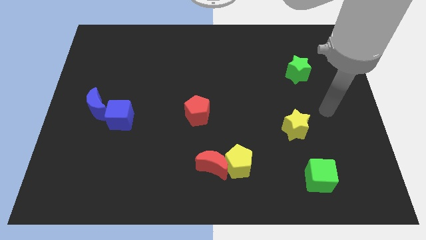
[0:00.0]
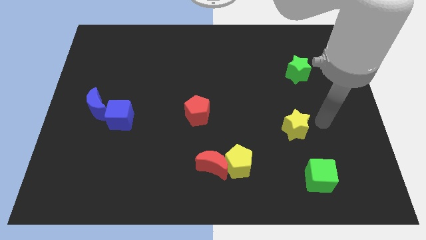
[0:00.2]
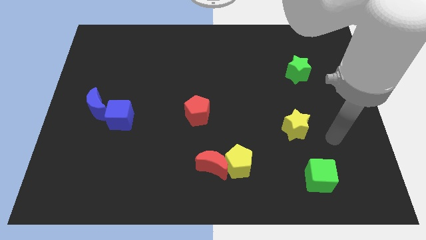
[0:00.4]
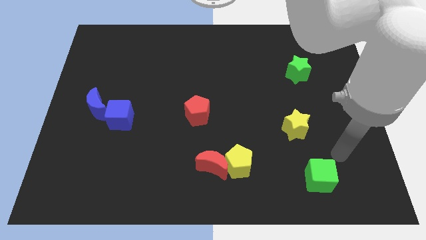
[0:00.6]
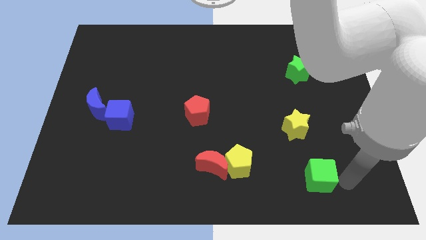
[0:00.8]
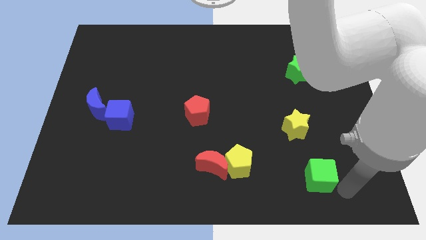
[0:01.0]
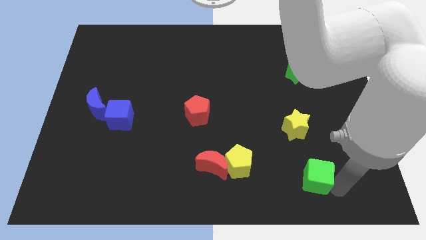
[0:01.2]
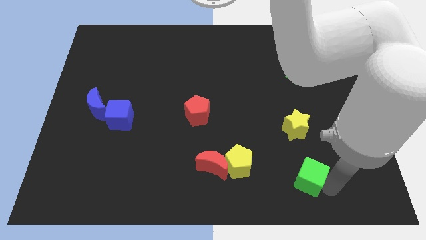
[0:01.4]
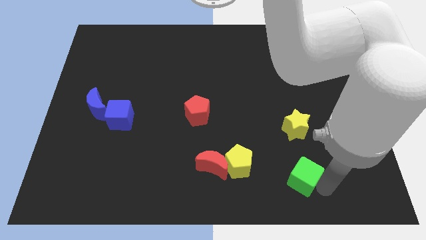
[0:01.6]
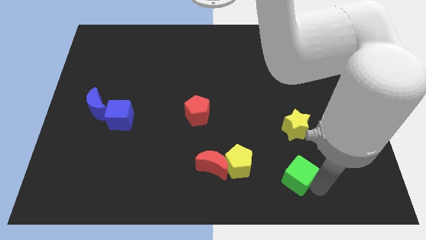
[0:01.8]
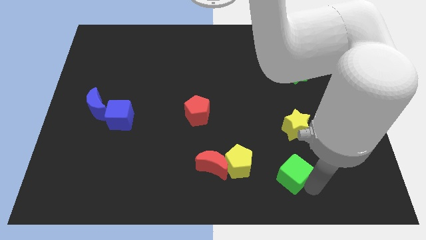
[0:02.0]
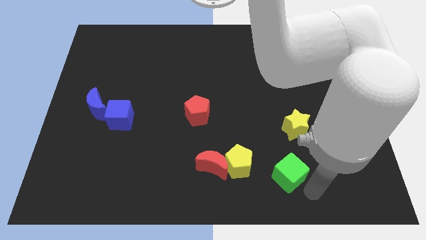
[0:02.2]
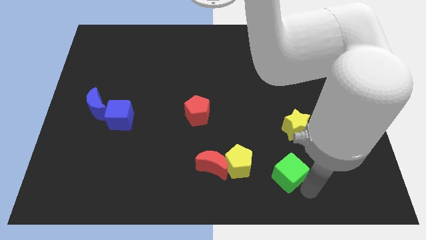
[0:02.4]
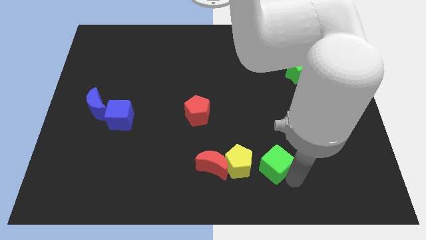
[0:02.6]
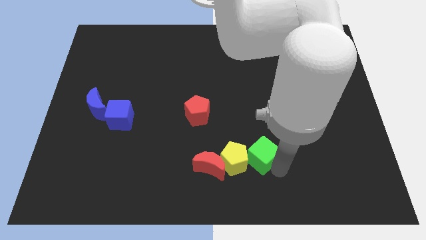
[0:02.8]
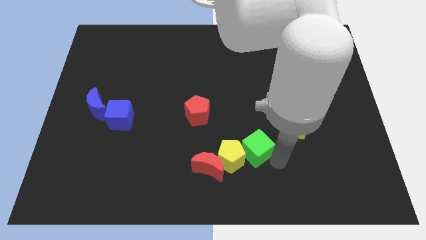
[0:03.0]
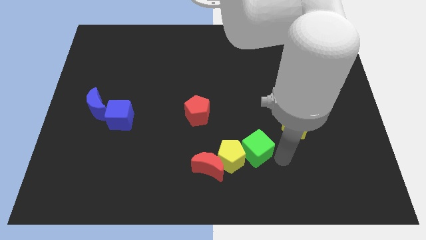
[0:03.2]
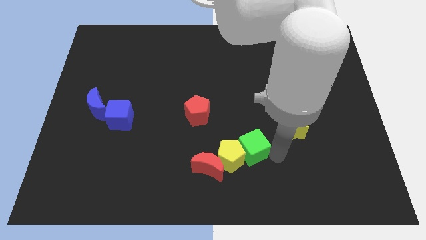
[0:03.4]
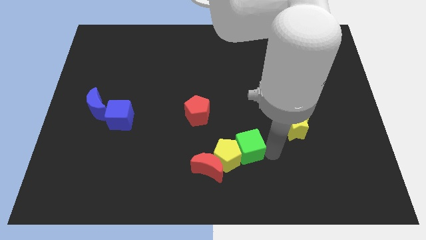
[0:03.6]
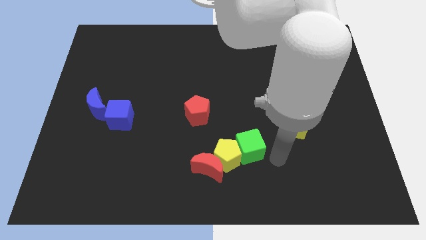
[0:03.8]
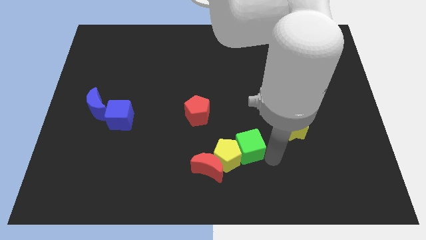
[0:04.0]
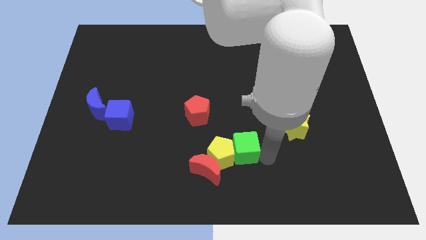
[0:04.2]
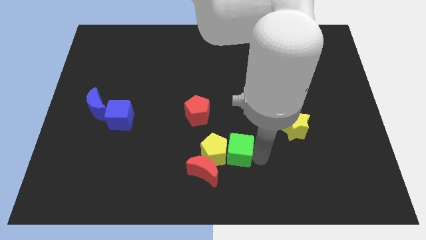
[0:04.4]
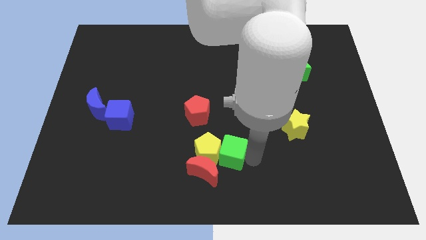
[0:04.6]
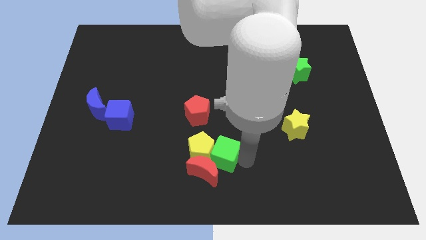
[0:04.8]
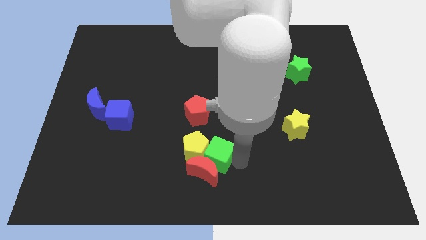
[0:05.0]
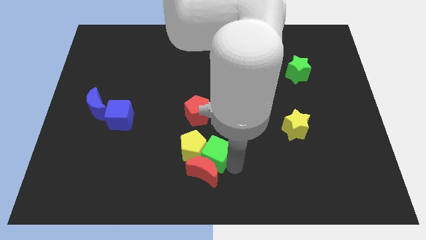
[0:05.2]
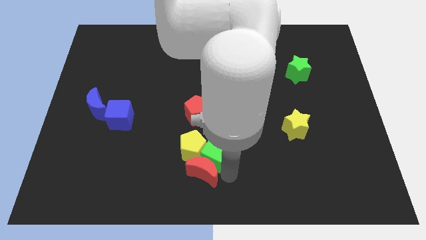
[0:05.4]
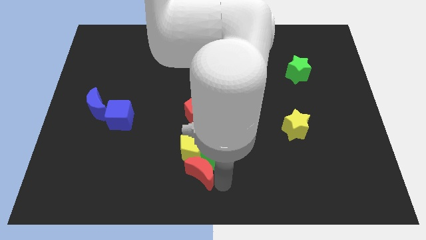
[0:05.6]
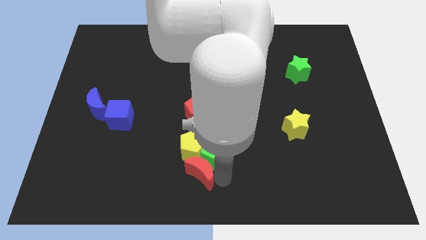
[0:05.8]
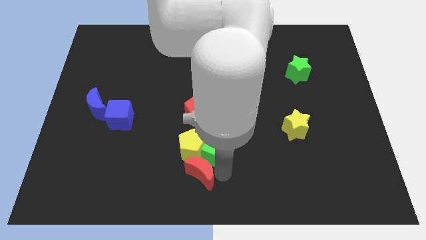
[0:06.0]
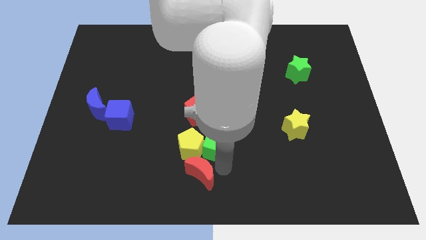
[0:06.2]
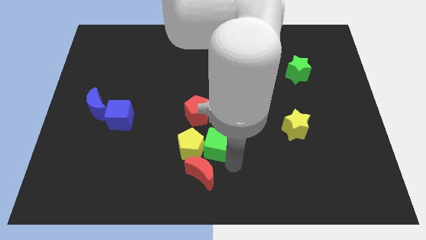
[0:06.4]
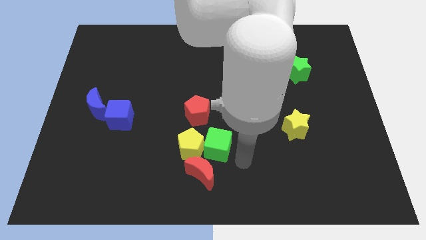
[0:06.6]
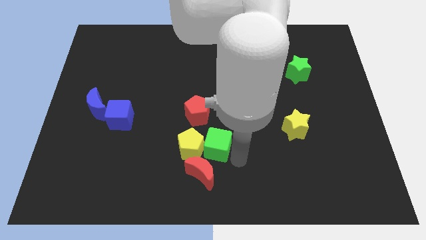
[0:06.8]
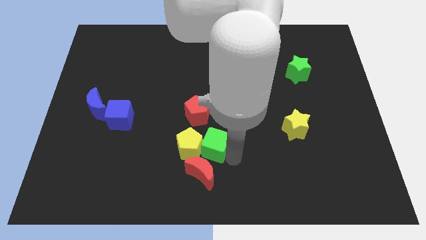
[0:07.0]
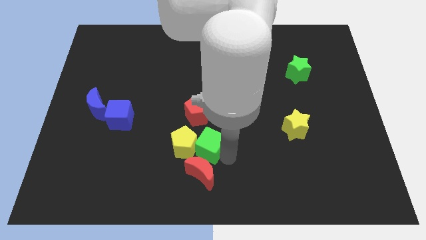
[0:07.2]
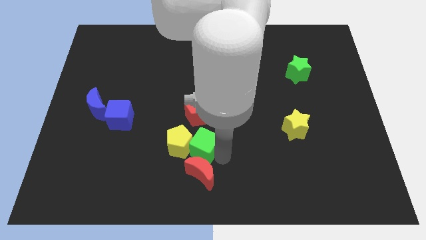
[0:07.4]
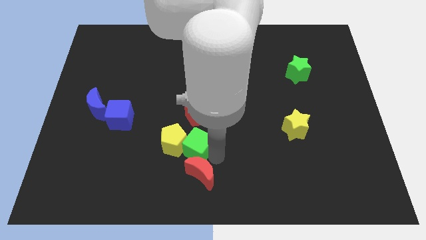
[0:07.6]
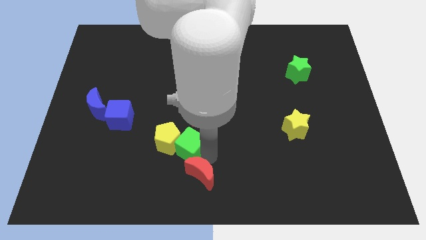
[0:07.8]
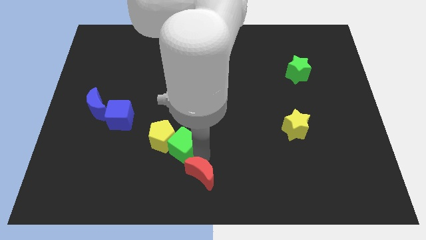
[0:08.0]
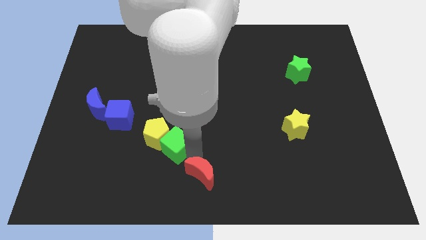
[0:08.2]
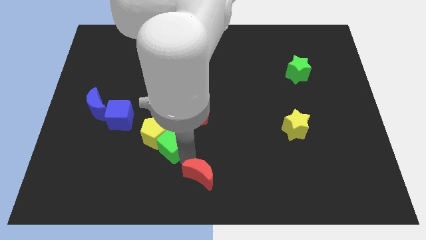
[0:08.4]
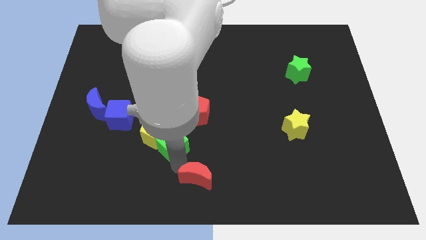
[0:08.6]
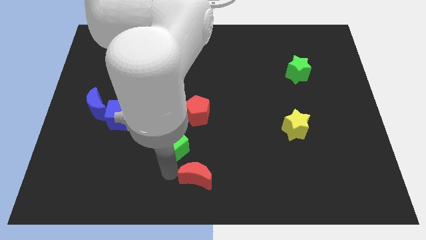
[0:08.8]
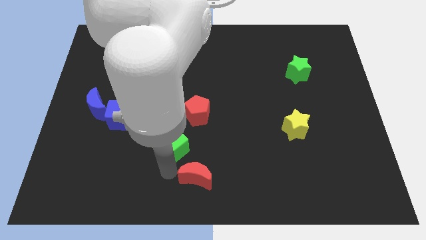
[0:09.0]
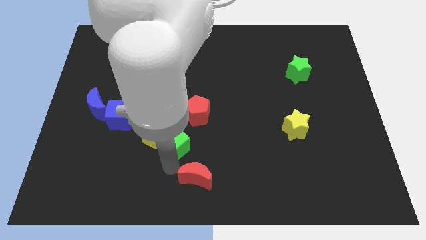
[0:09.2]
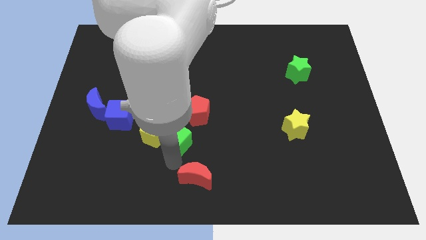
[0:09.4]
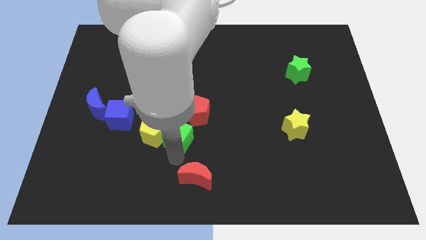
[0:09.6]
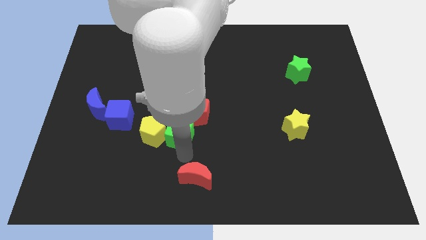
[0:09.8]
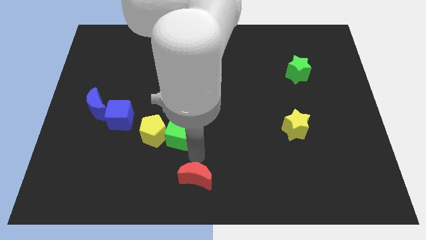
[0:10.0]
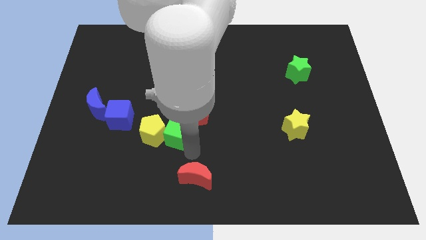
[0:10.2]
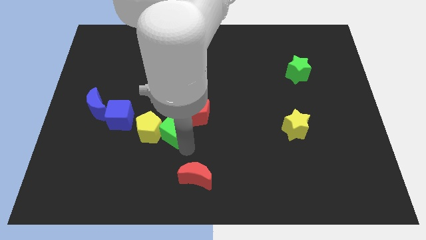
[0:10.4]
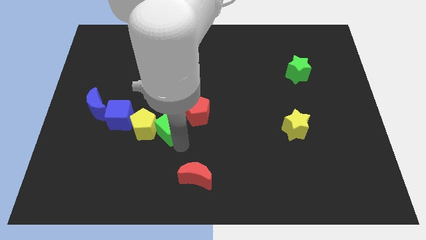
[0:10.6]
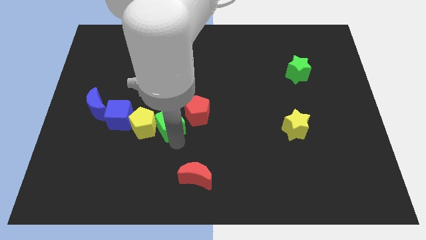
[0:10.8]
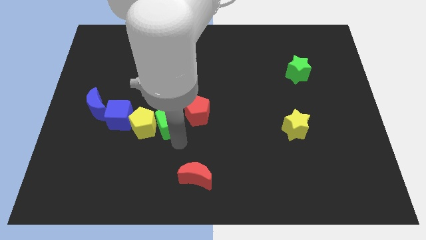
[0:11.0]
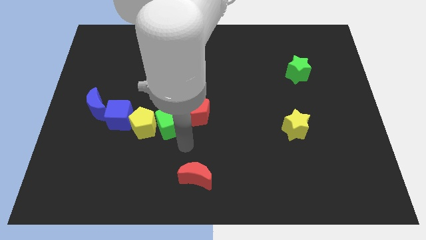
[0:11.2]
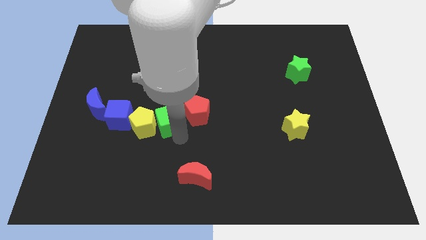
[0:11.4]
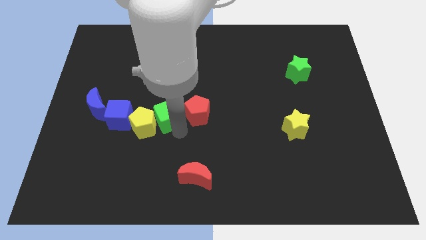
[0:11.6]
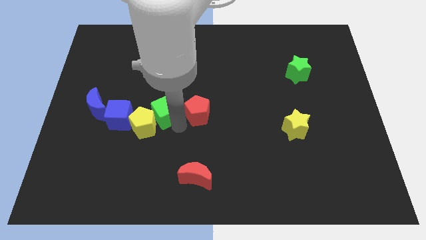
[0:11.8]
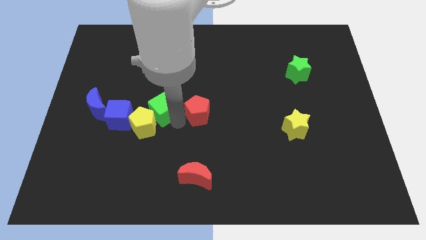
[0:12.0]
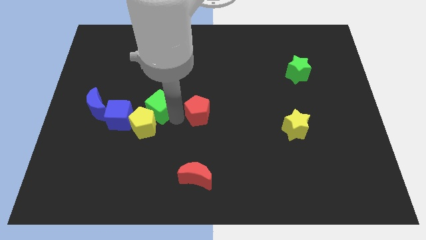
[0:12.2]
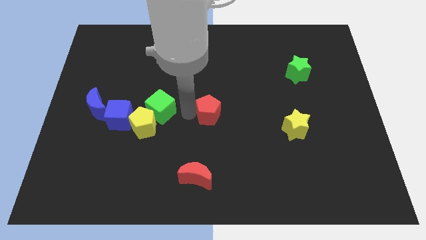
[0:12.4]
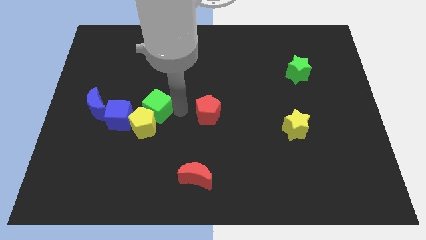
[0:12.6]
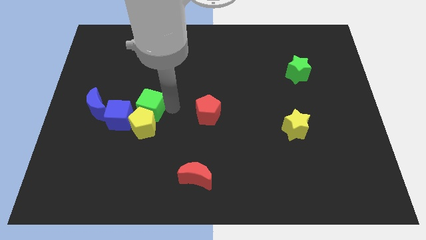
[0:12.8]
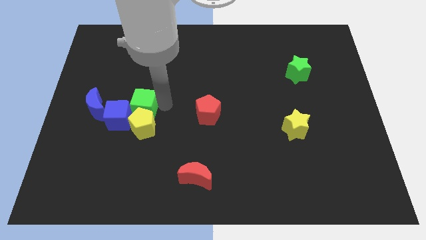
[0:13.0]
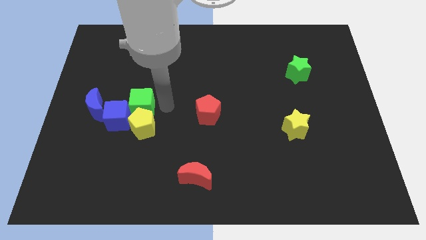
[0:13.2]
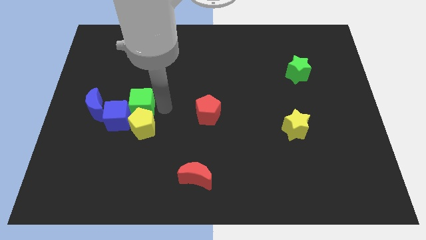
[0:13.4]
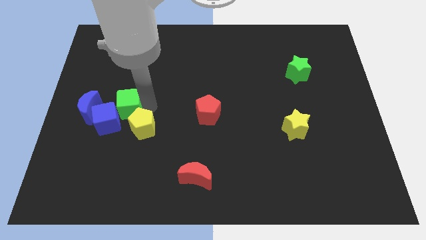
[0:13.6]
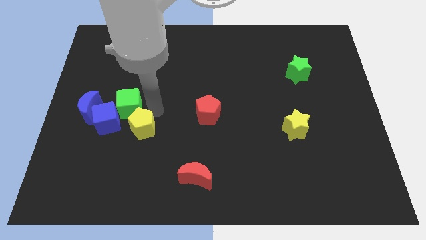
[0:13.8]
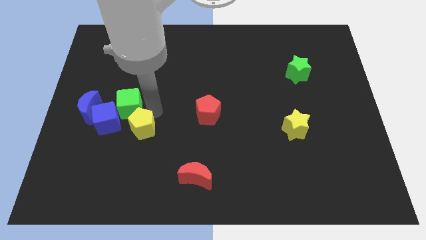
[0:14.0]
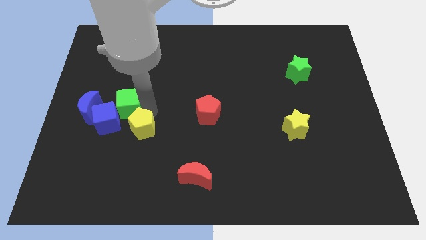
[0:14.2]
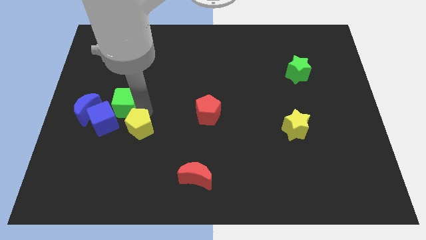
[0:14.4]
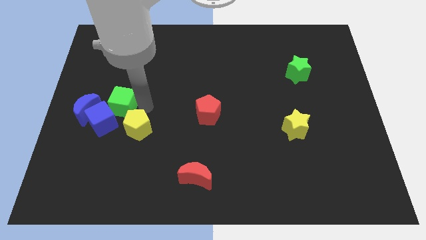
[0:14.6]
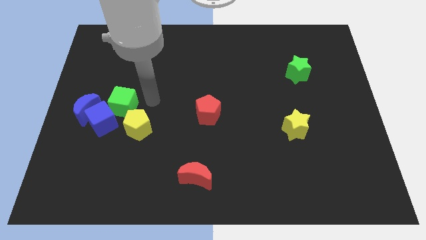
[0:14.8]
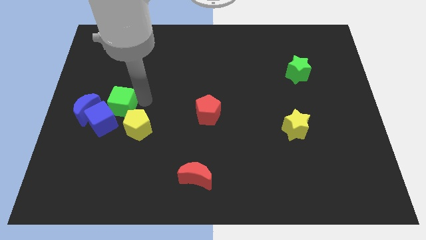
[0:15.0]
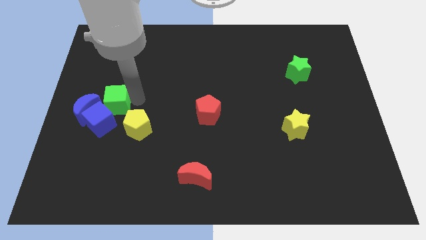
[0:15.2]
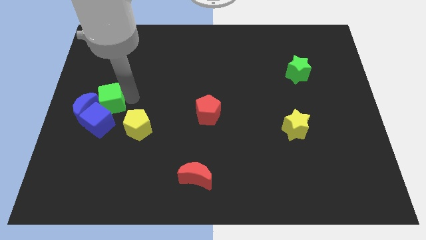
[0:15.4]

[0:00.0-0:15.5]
slide the green cube to the blue moon
